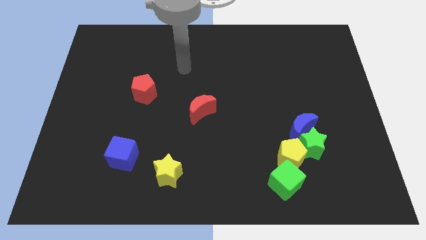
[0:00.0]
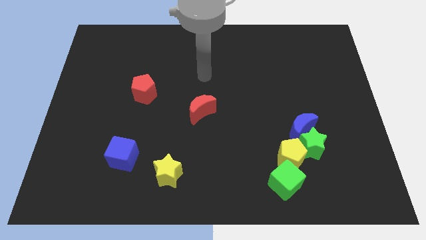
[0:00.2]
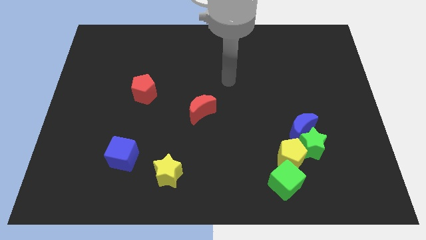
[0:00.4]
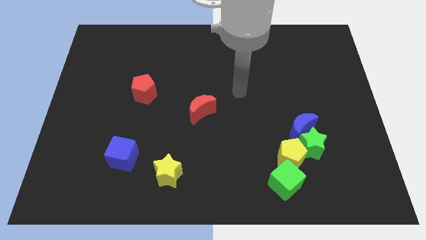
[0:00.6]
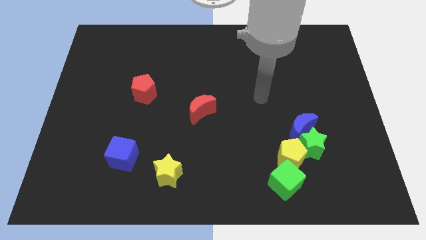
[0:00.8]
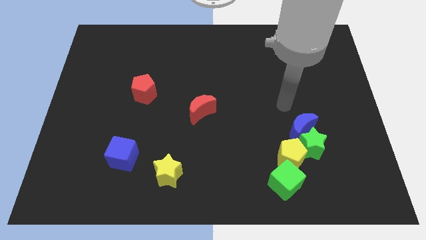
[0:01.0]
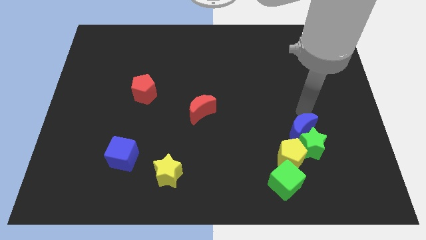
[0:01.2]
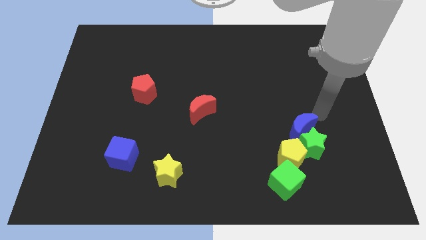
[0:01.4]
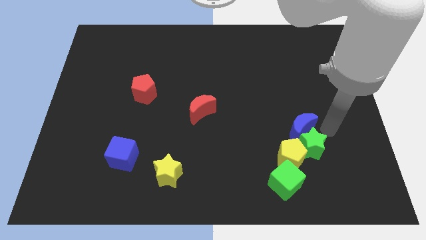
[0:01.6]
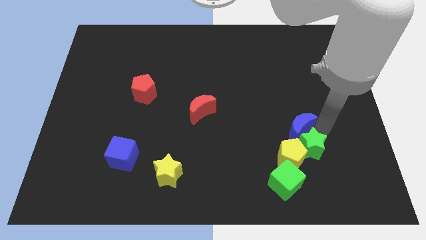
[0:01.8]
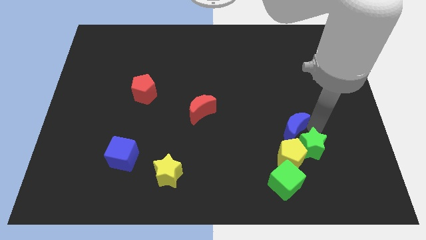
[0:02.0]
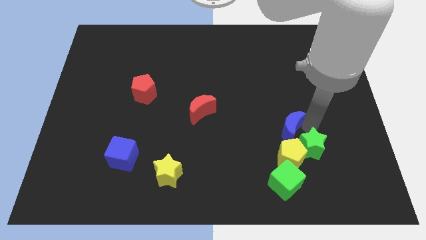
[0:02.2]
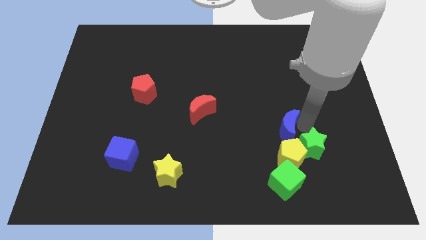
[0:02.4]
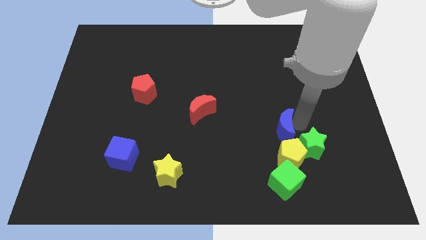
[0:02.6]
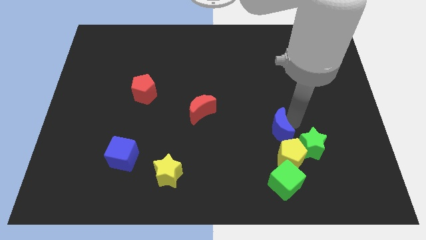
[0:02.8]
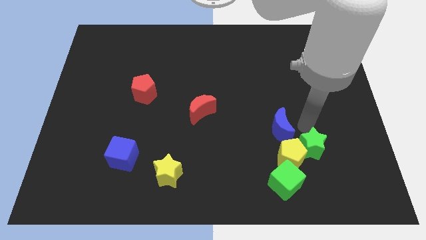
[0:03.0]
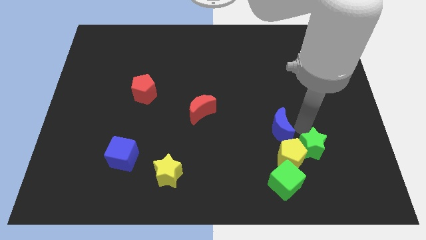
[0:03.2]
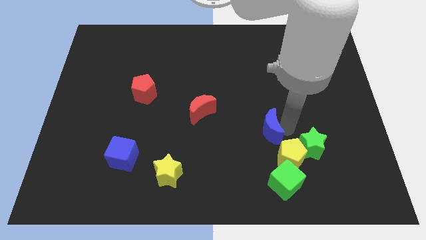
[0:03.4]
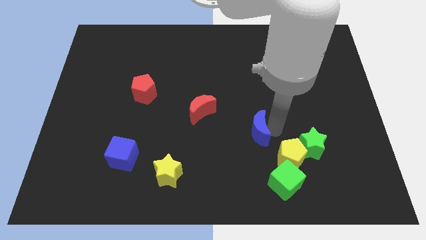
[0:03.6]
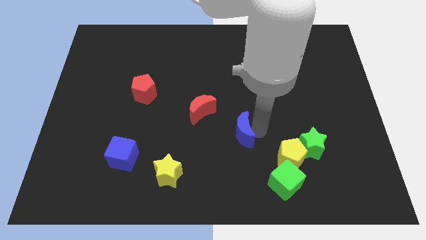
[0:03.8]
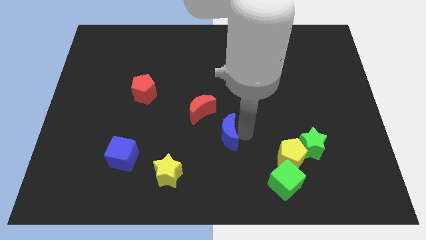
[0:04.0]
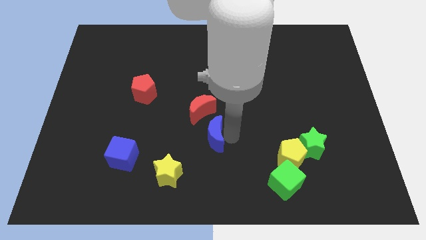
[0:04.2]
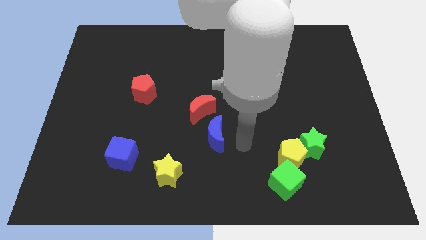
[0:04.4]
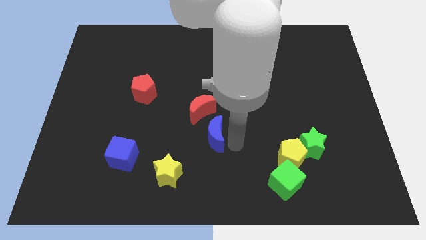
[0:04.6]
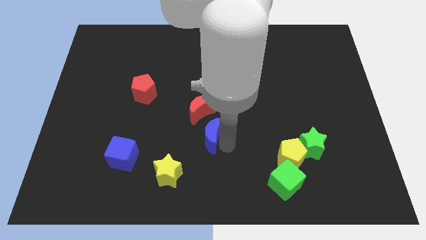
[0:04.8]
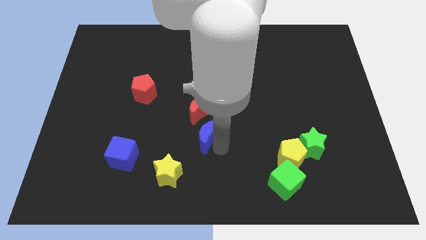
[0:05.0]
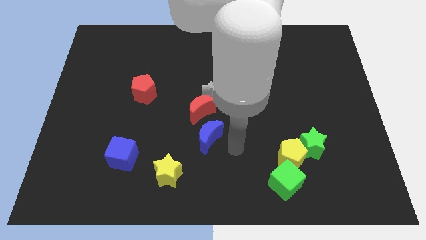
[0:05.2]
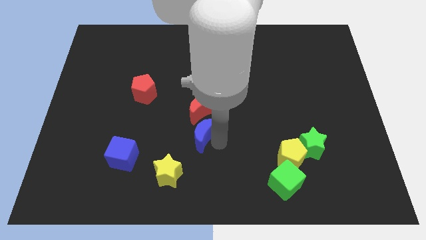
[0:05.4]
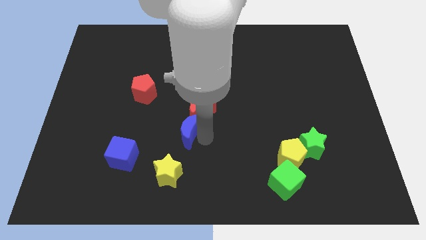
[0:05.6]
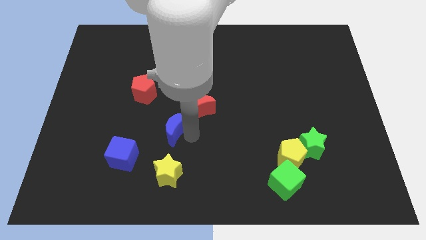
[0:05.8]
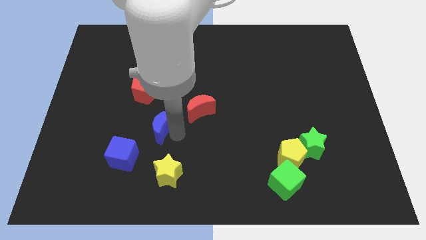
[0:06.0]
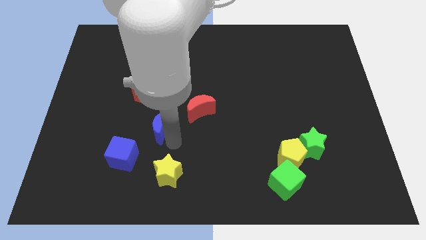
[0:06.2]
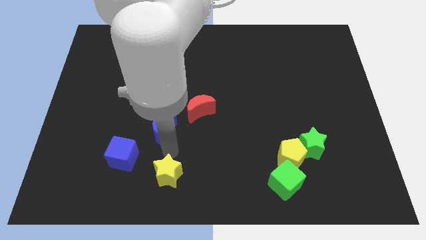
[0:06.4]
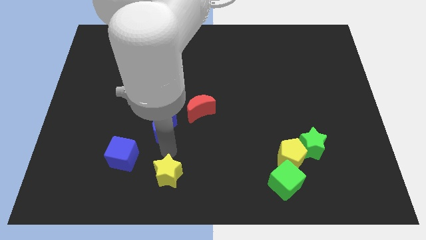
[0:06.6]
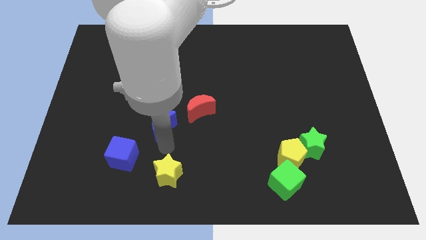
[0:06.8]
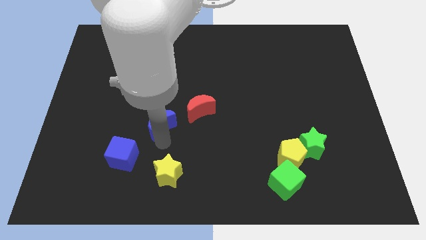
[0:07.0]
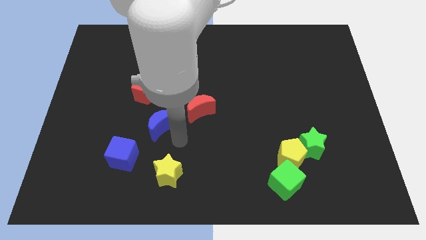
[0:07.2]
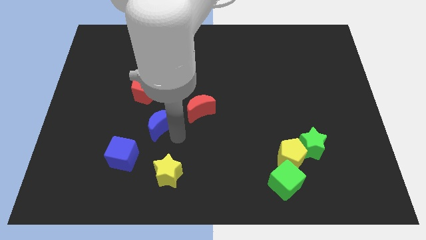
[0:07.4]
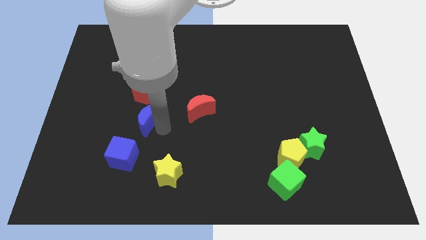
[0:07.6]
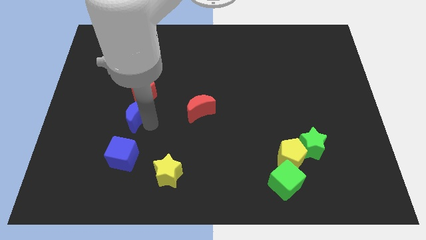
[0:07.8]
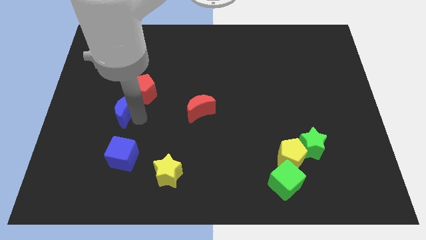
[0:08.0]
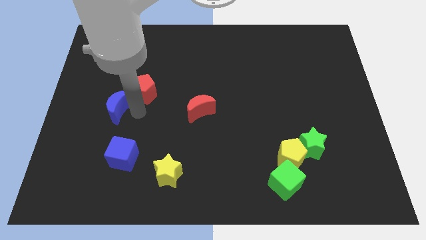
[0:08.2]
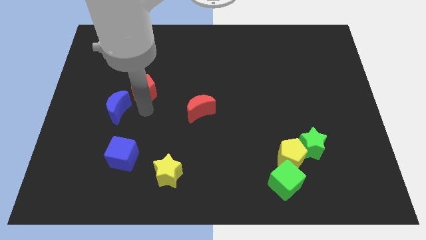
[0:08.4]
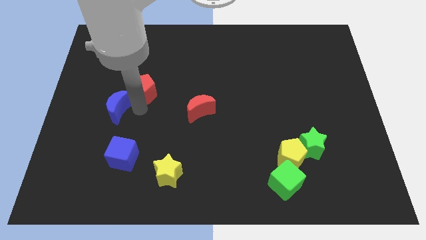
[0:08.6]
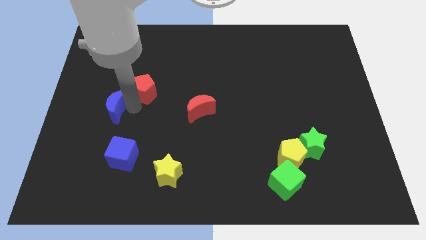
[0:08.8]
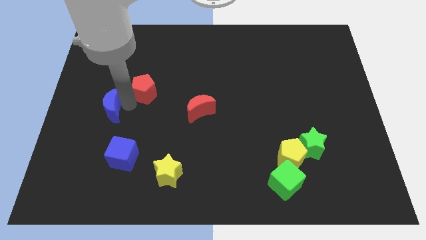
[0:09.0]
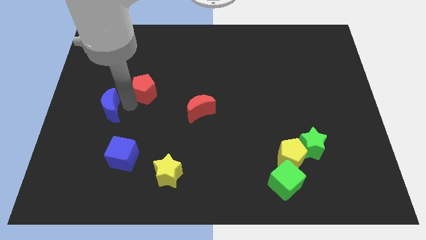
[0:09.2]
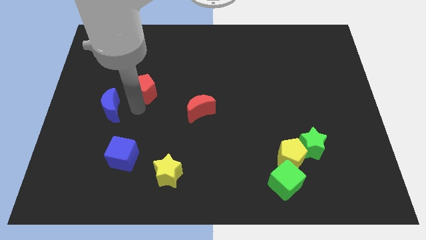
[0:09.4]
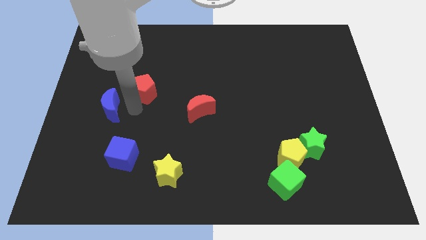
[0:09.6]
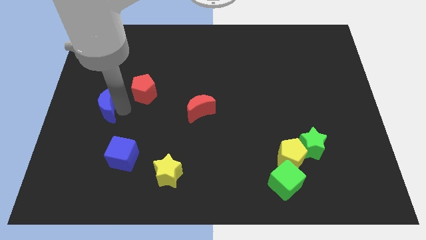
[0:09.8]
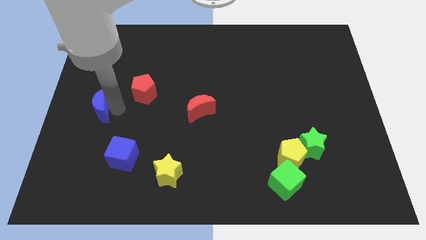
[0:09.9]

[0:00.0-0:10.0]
move the blue moon to the left side of the board
